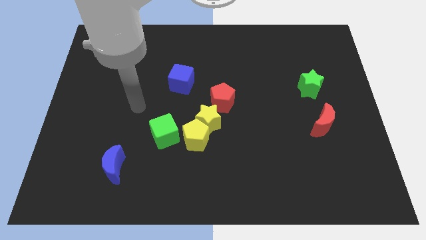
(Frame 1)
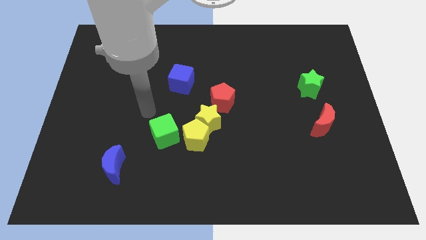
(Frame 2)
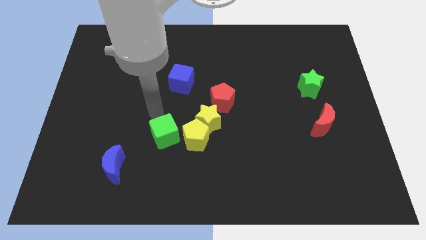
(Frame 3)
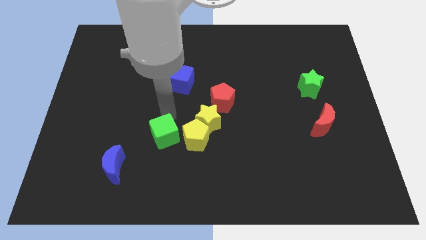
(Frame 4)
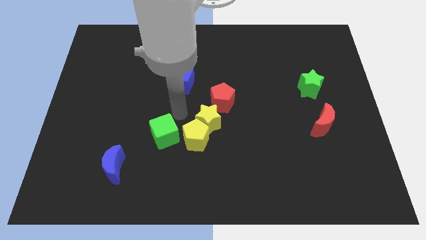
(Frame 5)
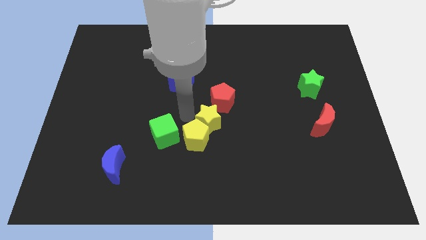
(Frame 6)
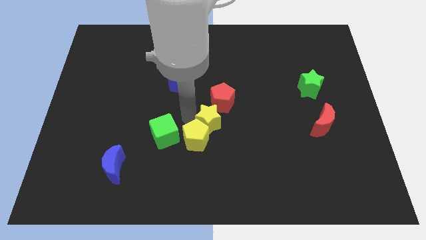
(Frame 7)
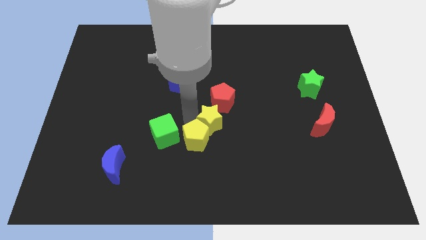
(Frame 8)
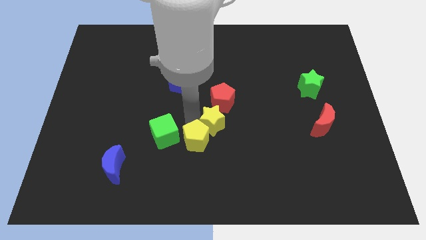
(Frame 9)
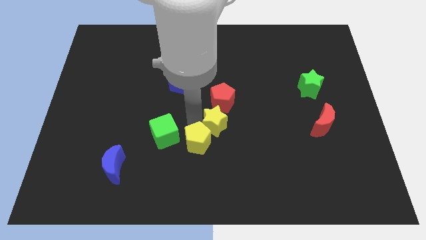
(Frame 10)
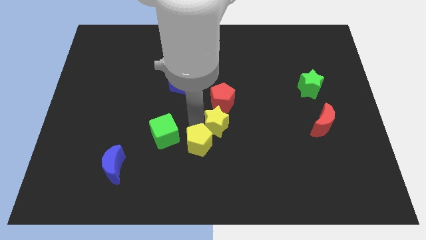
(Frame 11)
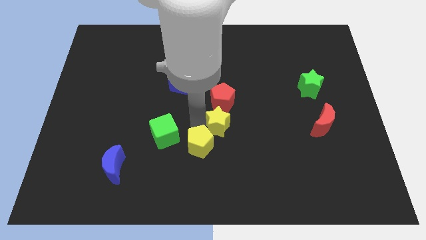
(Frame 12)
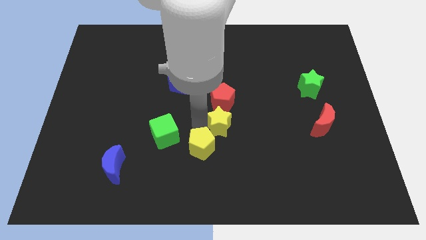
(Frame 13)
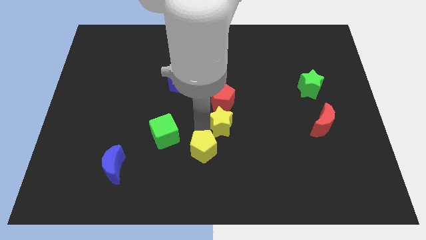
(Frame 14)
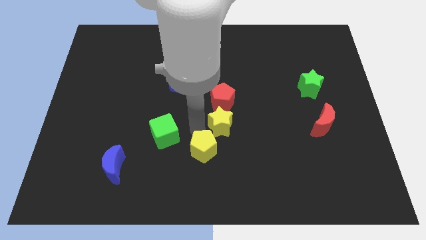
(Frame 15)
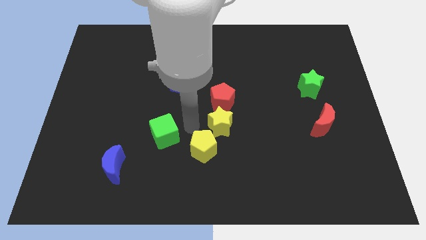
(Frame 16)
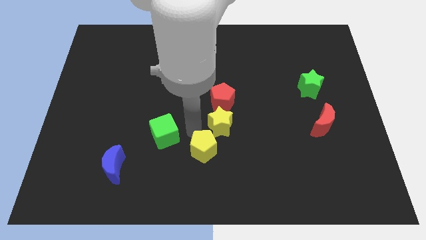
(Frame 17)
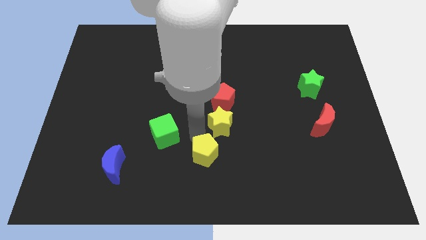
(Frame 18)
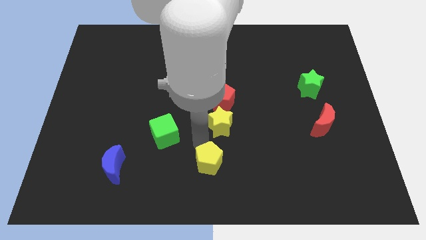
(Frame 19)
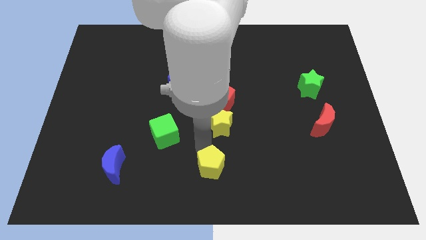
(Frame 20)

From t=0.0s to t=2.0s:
separate the yellow pentagon from the yellow star and green cube

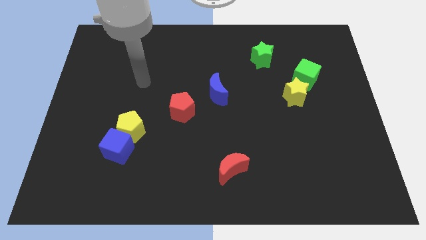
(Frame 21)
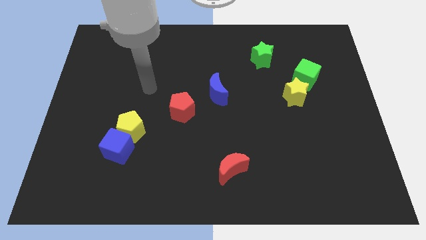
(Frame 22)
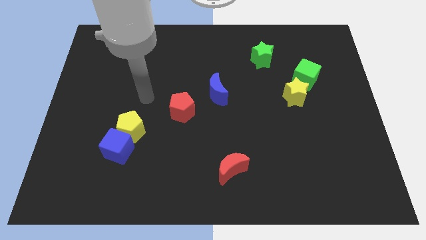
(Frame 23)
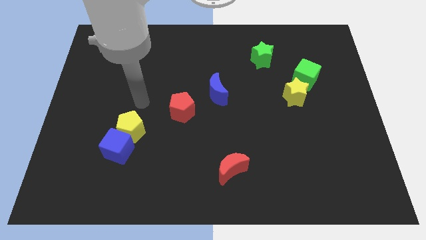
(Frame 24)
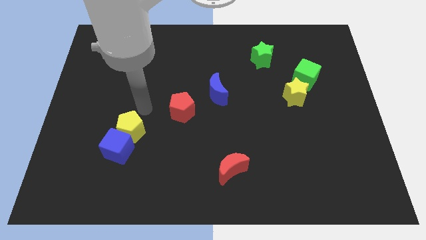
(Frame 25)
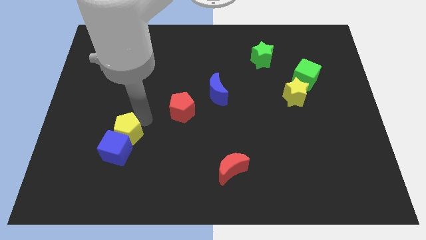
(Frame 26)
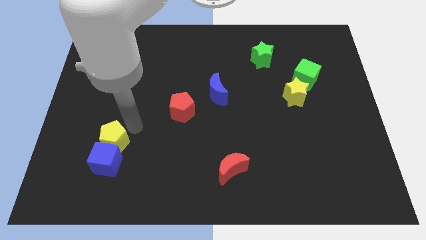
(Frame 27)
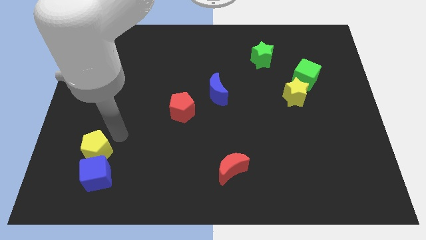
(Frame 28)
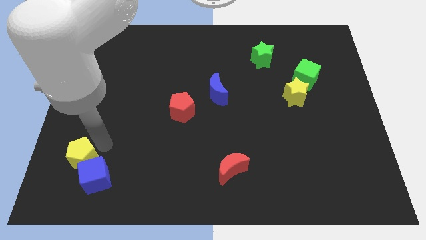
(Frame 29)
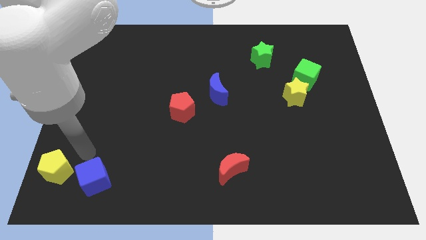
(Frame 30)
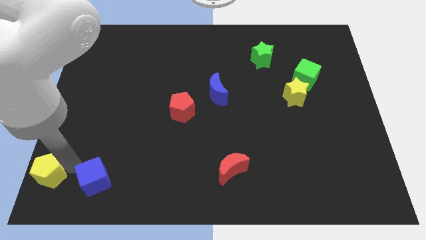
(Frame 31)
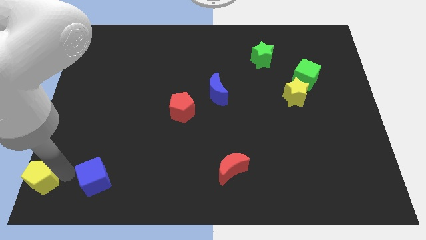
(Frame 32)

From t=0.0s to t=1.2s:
pull the blue cube apart from the yellow pentagon

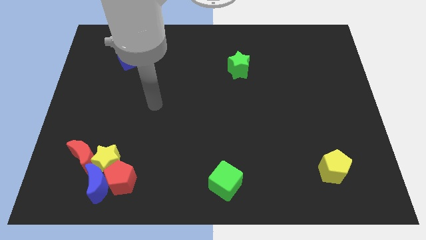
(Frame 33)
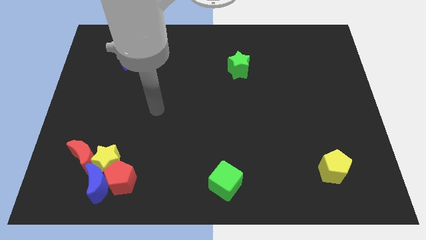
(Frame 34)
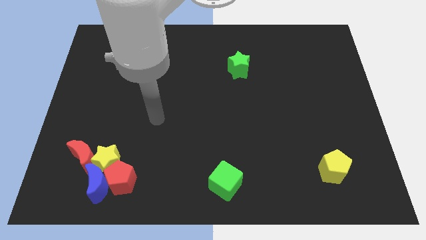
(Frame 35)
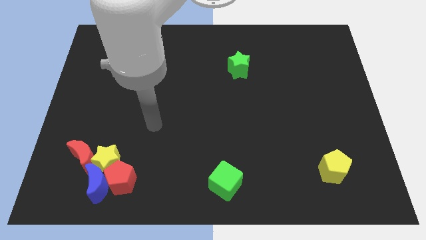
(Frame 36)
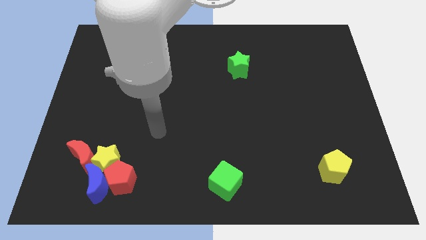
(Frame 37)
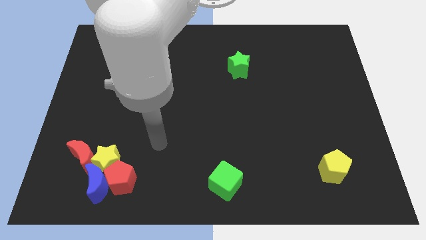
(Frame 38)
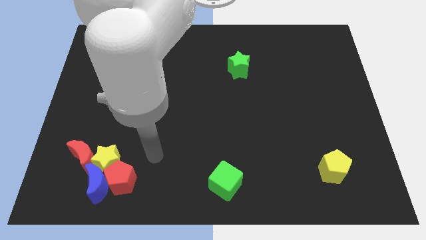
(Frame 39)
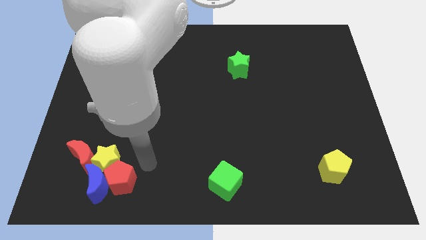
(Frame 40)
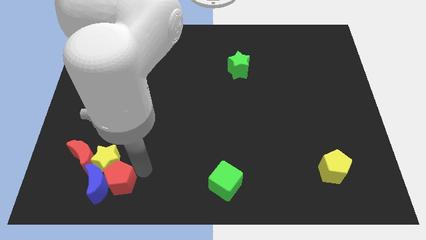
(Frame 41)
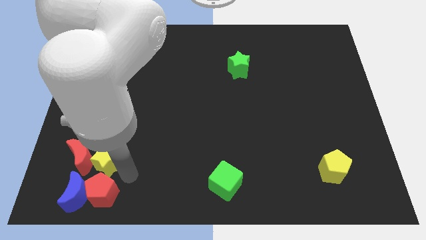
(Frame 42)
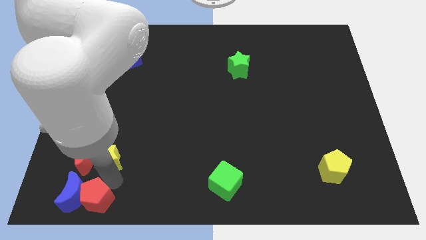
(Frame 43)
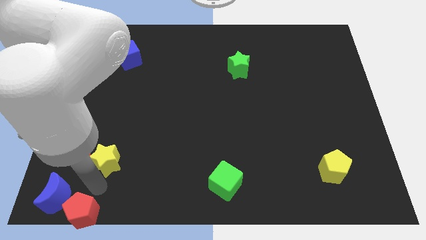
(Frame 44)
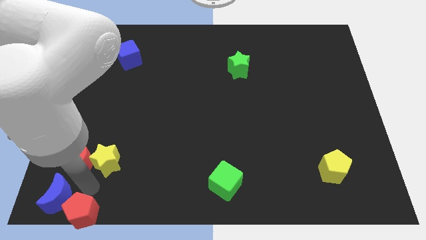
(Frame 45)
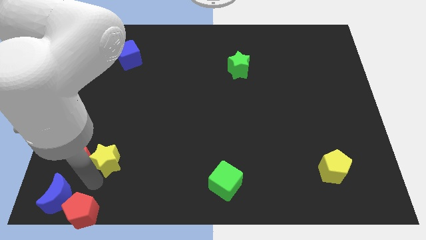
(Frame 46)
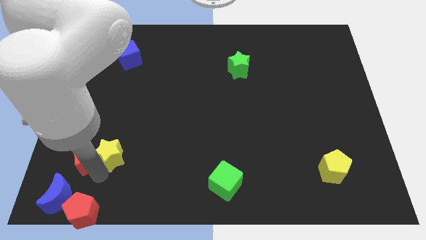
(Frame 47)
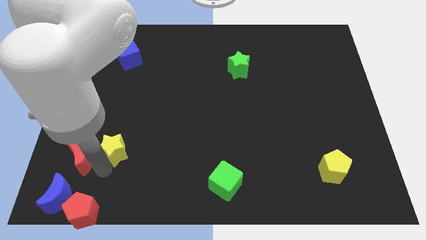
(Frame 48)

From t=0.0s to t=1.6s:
pull the yellow star apart from the blue moon, red pentagon, and red moon

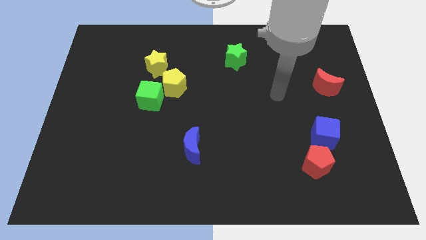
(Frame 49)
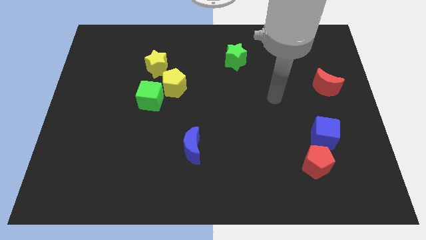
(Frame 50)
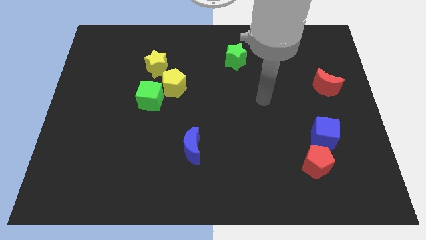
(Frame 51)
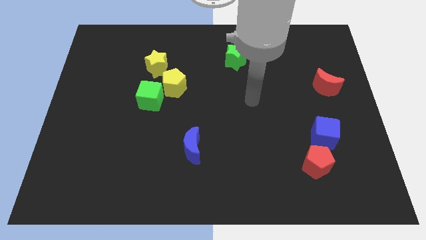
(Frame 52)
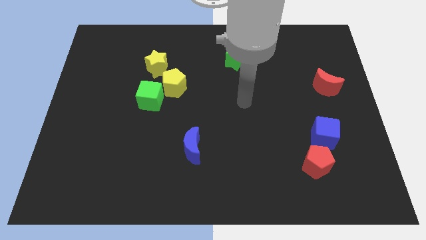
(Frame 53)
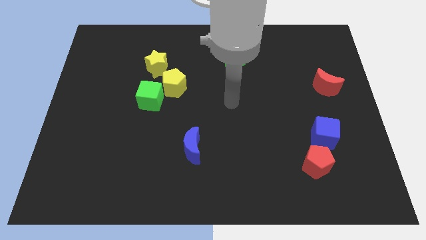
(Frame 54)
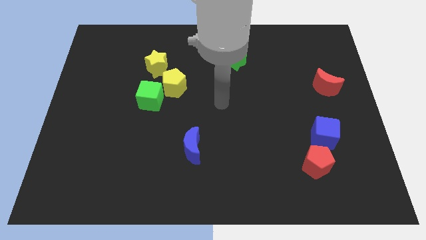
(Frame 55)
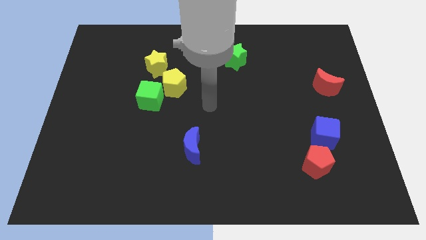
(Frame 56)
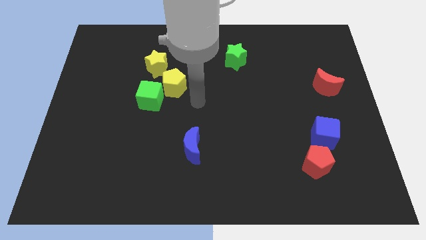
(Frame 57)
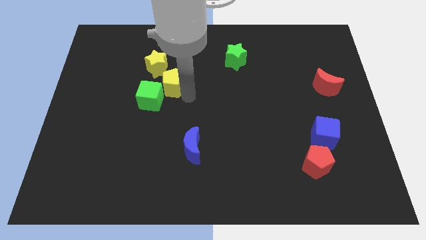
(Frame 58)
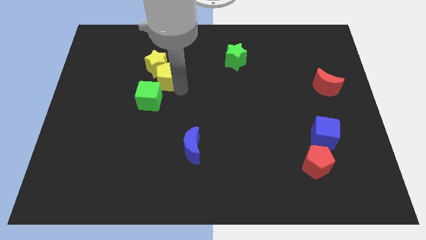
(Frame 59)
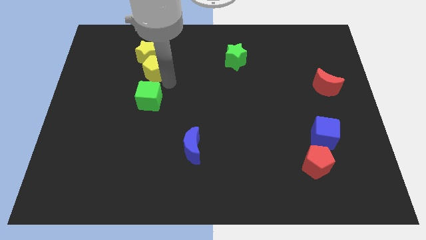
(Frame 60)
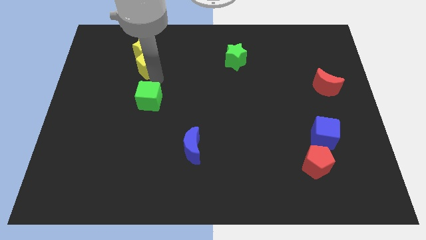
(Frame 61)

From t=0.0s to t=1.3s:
separate the green cube from the yellow pentagon

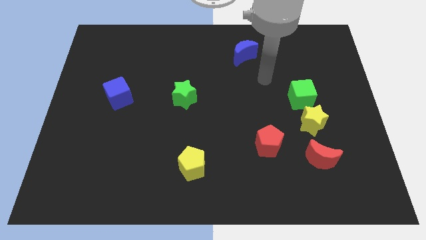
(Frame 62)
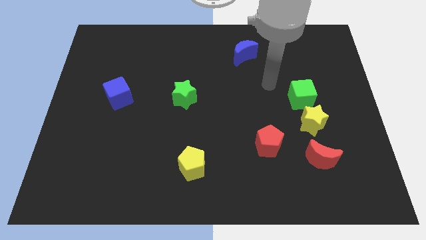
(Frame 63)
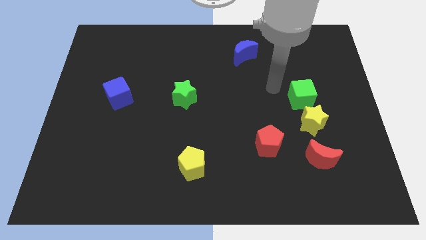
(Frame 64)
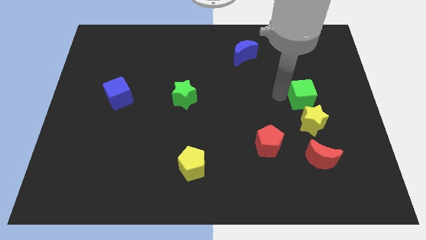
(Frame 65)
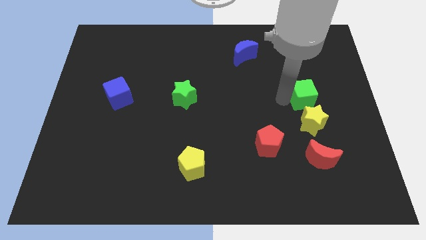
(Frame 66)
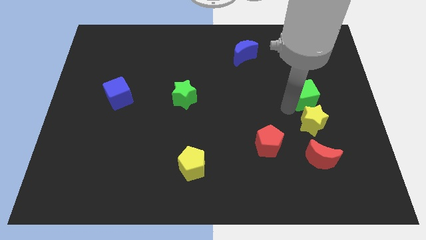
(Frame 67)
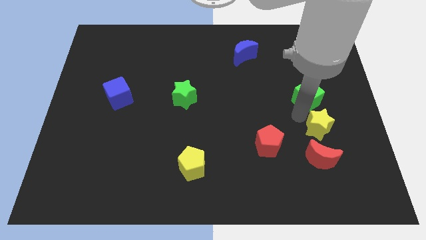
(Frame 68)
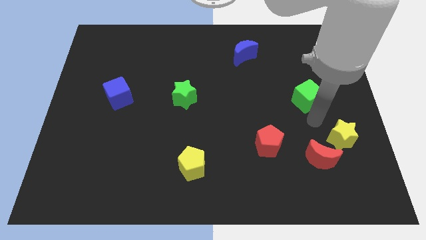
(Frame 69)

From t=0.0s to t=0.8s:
pull the green cube apart from the yellow star

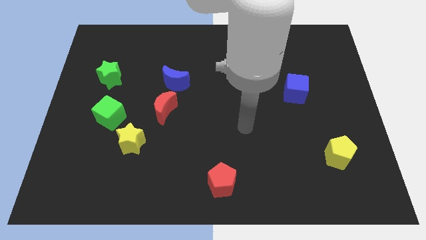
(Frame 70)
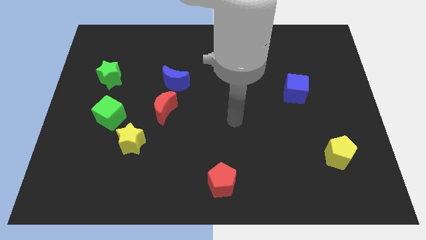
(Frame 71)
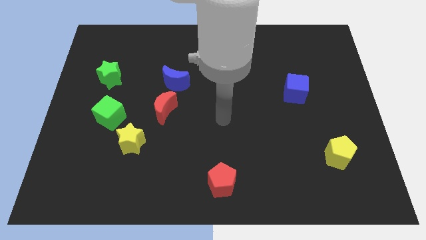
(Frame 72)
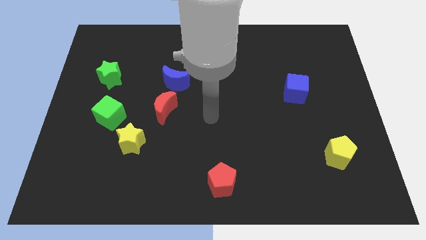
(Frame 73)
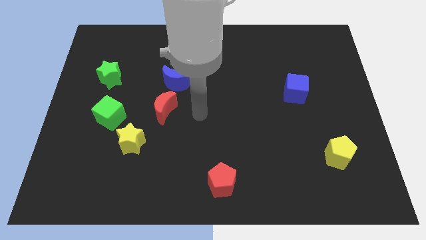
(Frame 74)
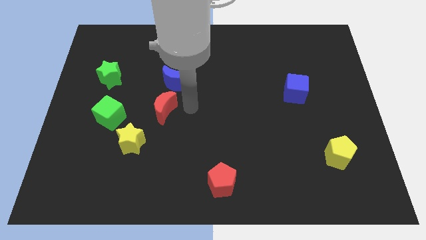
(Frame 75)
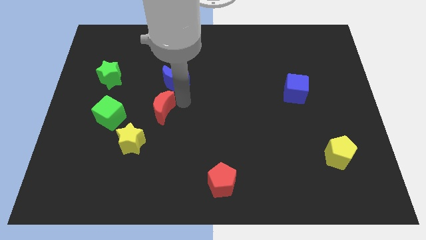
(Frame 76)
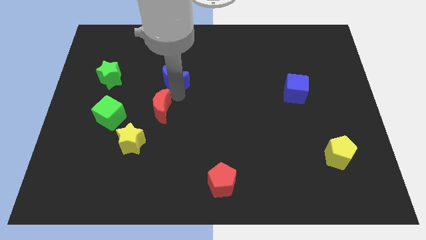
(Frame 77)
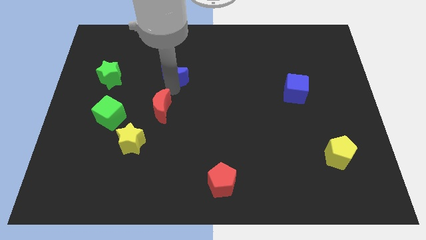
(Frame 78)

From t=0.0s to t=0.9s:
move the red moon away from the blue moon

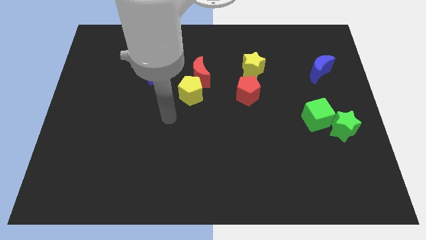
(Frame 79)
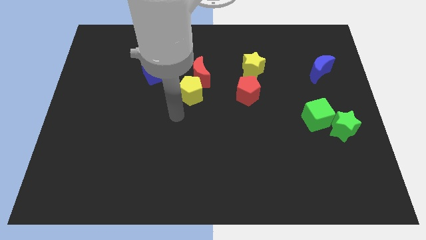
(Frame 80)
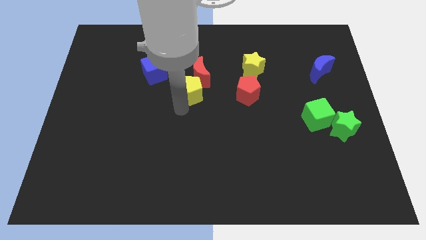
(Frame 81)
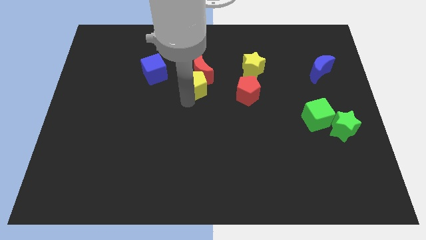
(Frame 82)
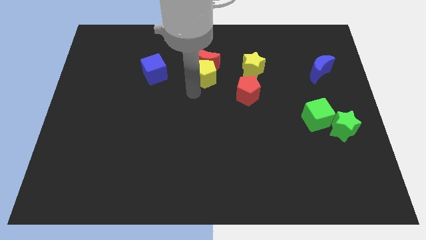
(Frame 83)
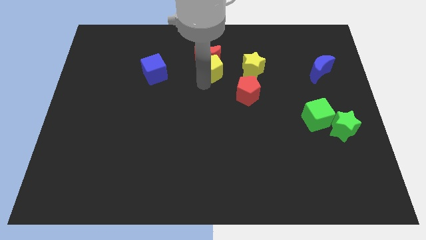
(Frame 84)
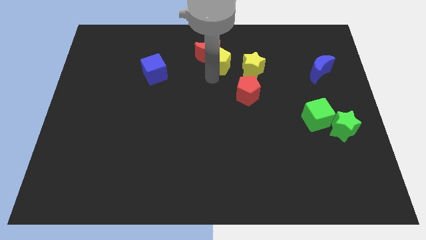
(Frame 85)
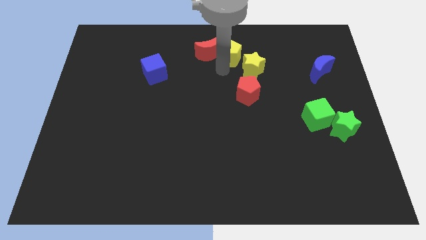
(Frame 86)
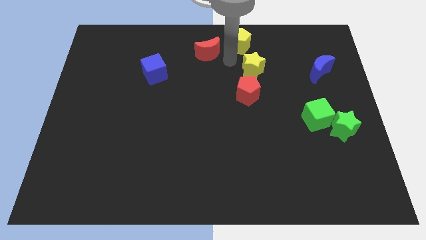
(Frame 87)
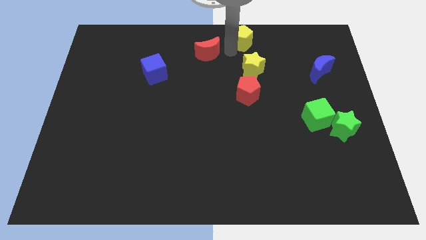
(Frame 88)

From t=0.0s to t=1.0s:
move the red moon away from the yellow pentagon

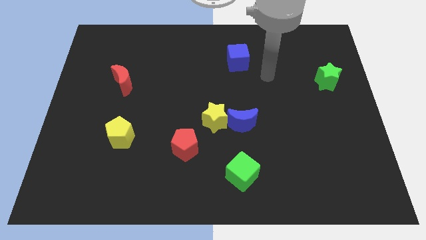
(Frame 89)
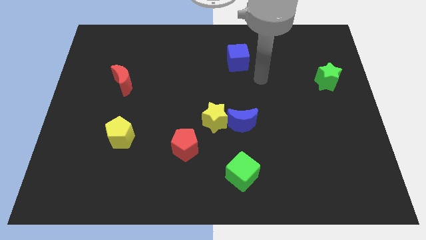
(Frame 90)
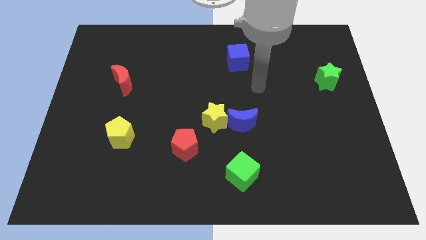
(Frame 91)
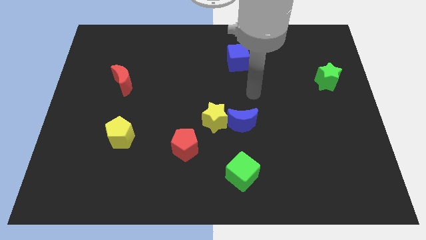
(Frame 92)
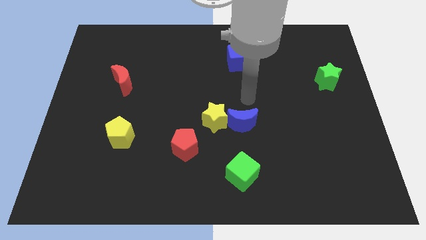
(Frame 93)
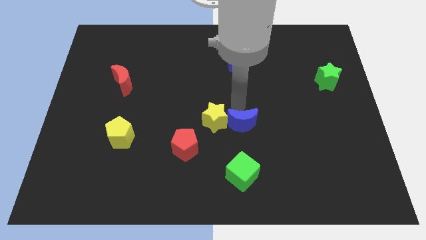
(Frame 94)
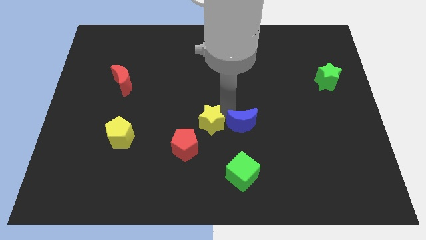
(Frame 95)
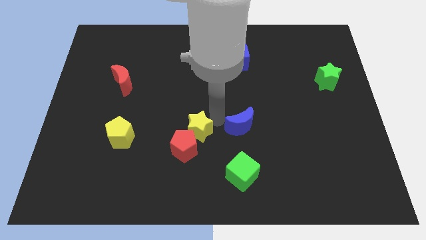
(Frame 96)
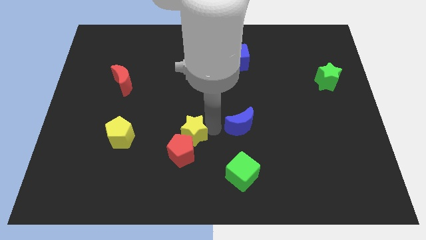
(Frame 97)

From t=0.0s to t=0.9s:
separate the blue moon from the yellow star
